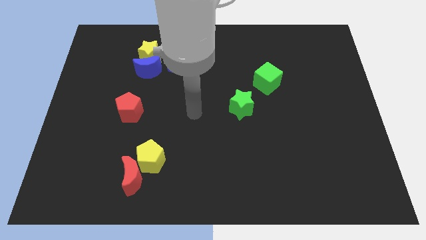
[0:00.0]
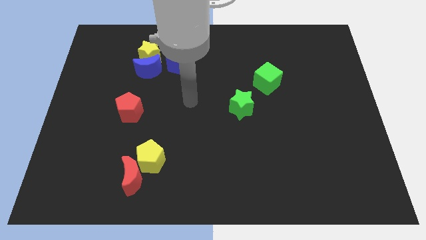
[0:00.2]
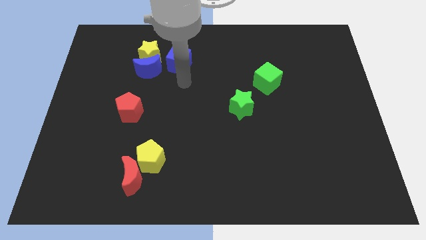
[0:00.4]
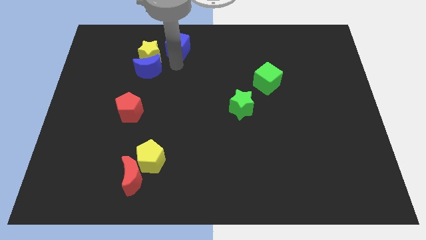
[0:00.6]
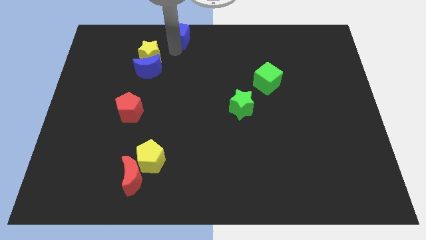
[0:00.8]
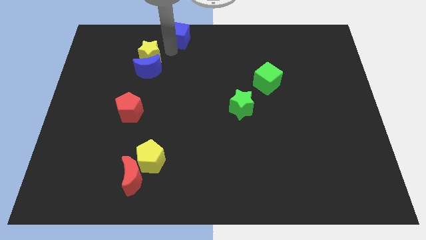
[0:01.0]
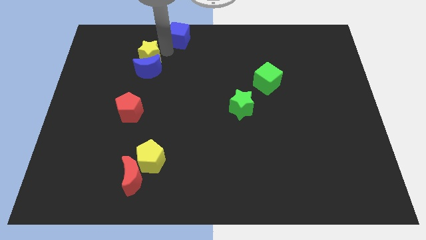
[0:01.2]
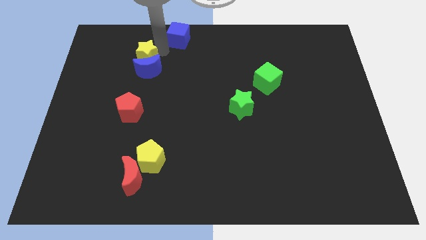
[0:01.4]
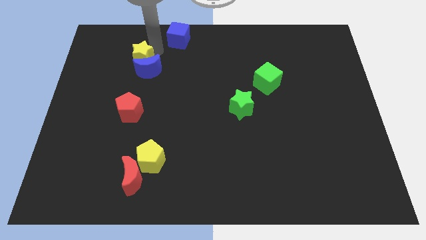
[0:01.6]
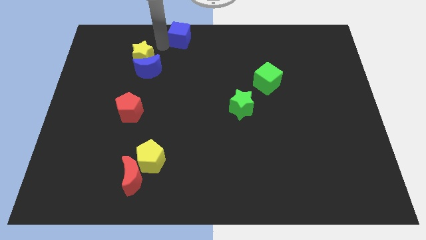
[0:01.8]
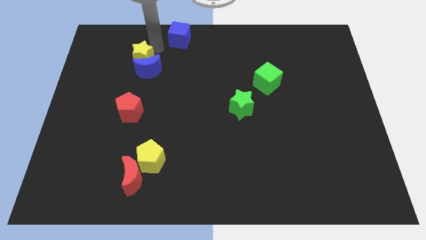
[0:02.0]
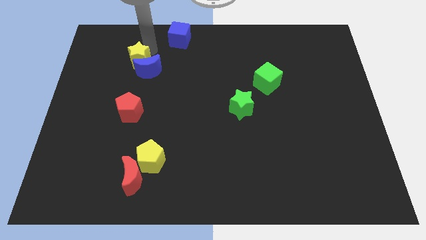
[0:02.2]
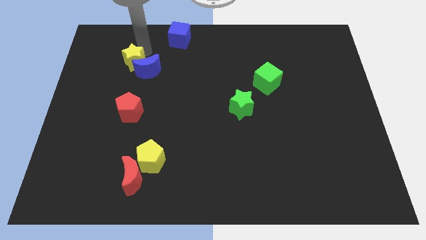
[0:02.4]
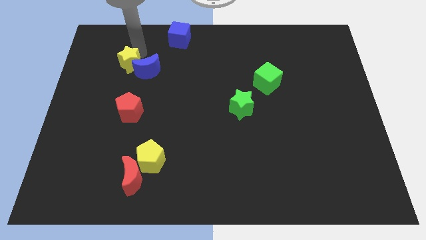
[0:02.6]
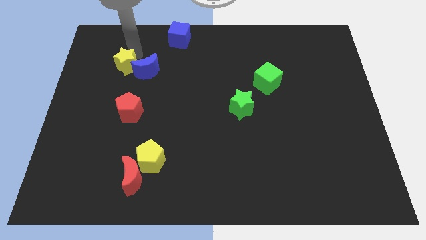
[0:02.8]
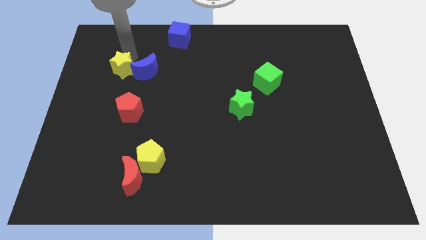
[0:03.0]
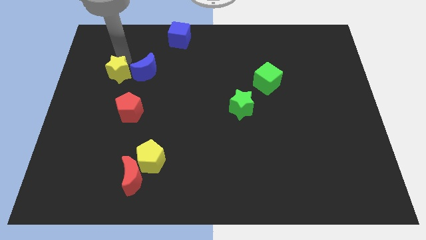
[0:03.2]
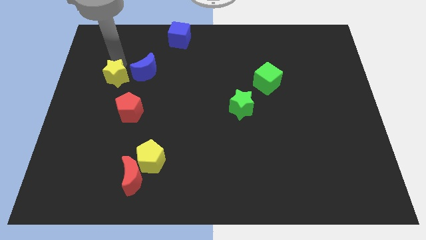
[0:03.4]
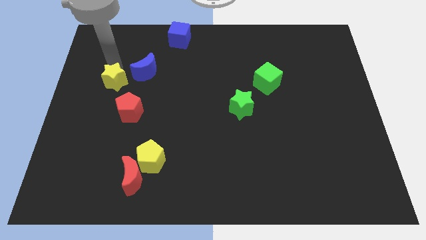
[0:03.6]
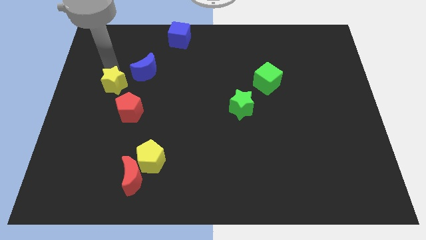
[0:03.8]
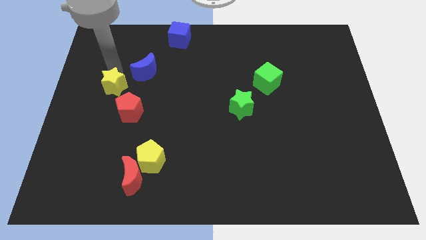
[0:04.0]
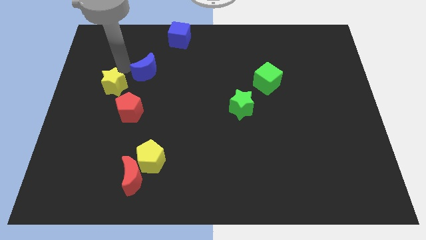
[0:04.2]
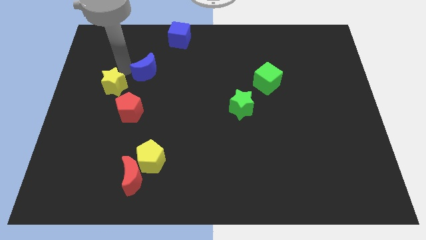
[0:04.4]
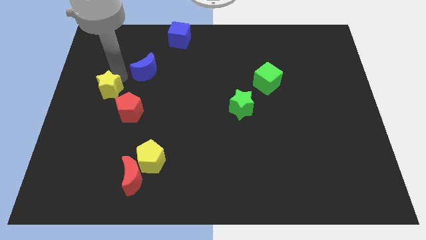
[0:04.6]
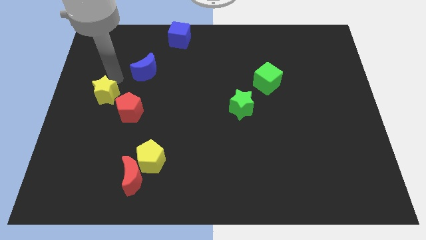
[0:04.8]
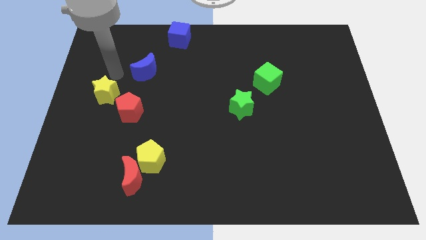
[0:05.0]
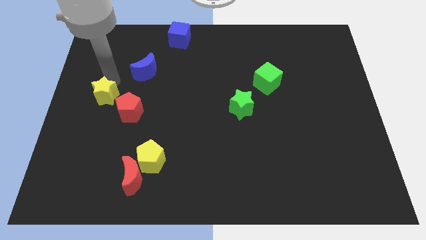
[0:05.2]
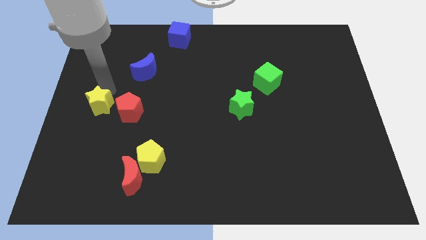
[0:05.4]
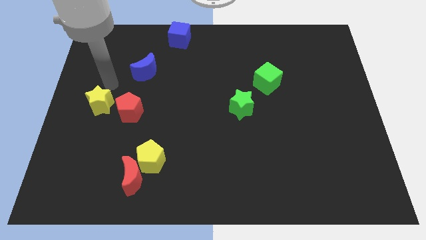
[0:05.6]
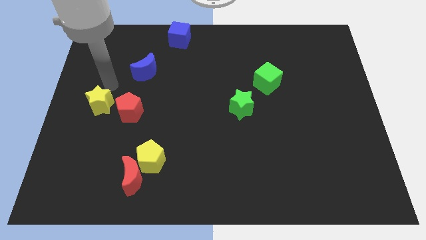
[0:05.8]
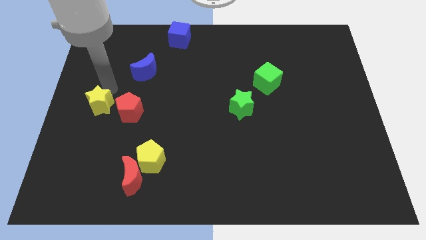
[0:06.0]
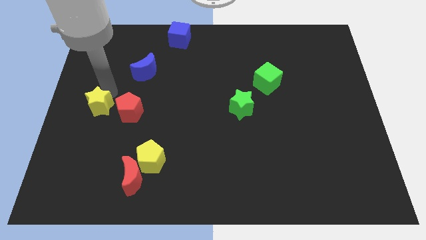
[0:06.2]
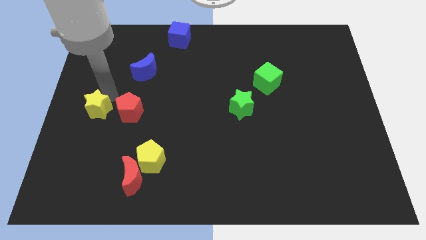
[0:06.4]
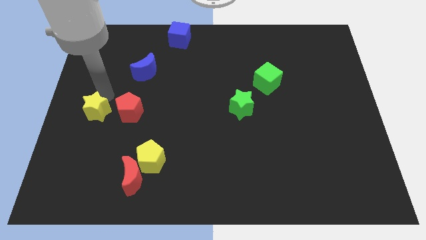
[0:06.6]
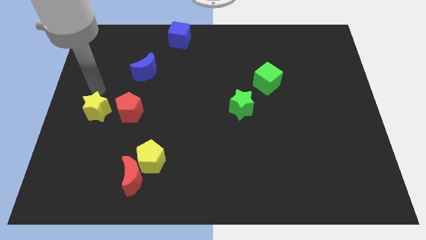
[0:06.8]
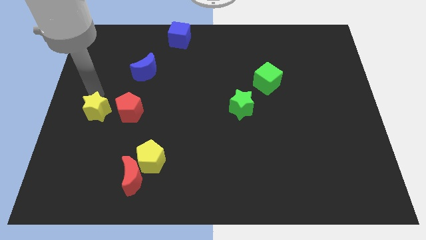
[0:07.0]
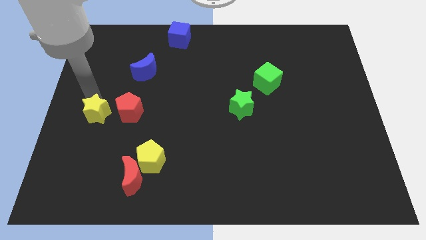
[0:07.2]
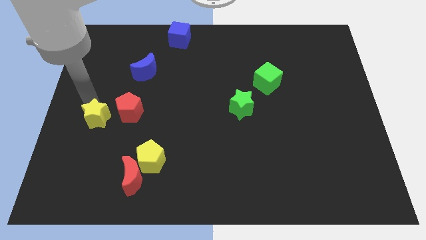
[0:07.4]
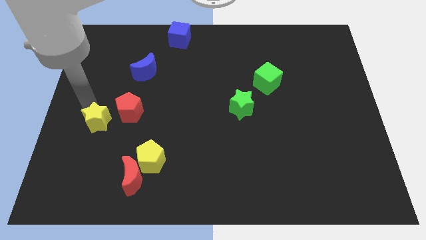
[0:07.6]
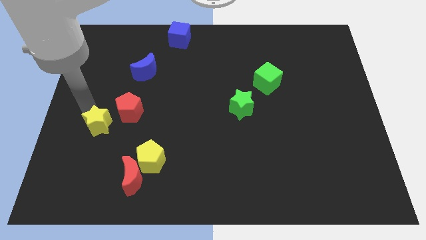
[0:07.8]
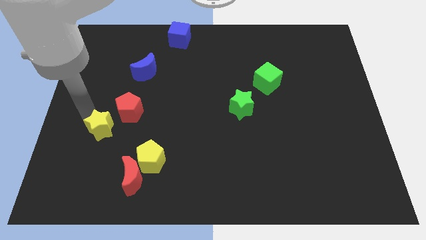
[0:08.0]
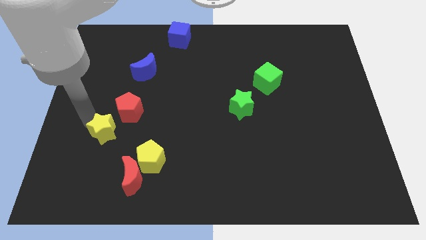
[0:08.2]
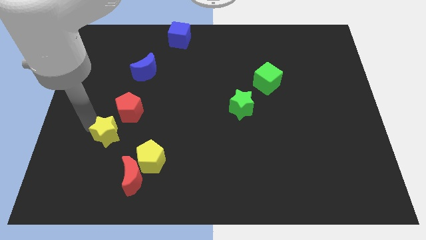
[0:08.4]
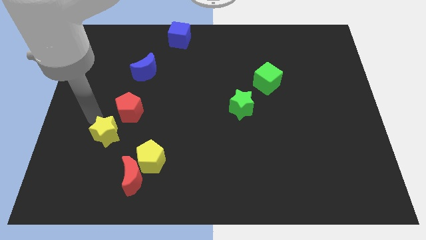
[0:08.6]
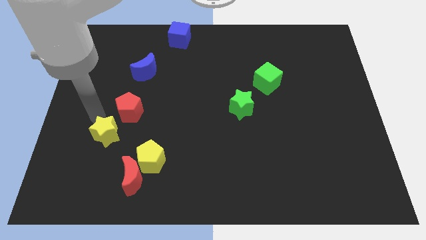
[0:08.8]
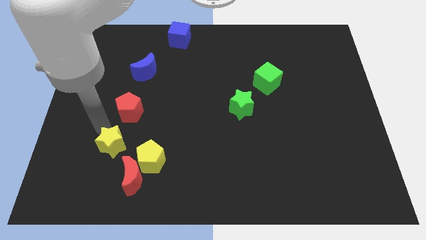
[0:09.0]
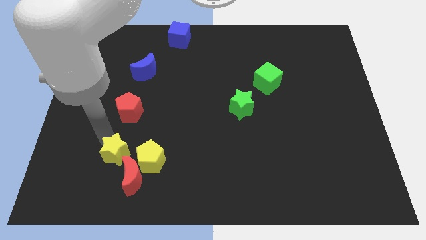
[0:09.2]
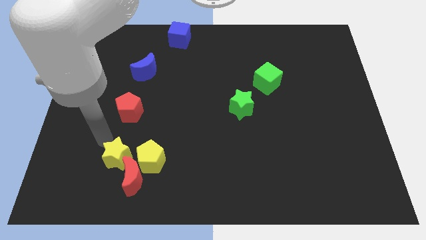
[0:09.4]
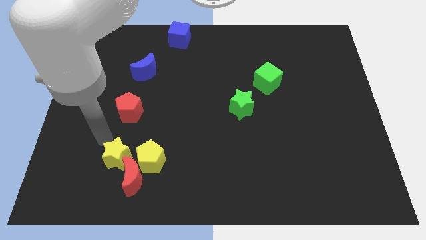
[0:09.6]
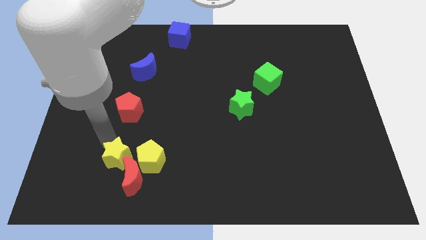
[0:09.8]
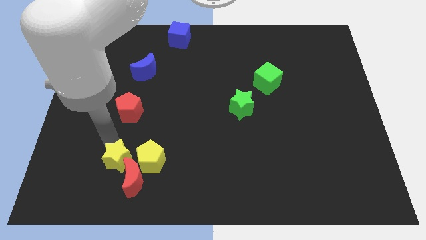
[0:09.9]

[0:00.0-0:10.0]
move the yellow star towards the red moon
